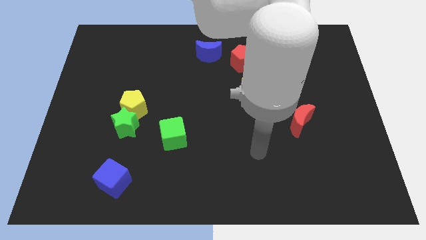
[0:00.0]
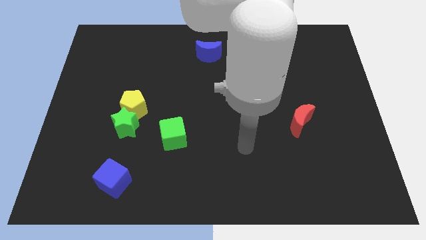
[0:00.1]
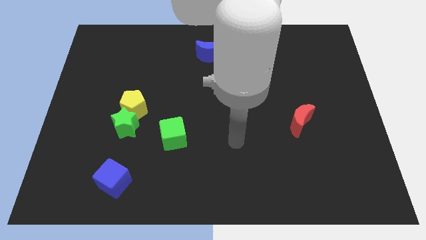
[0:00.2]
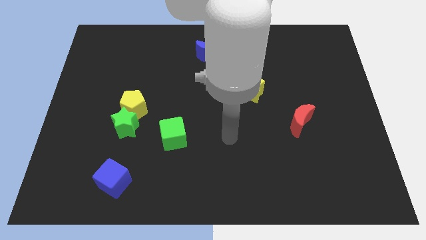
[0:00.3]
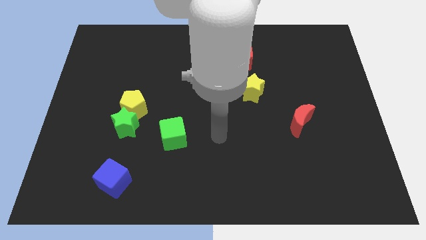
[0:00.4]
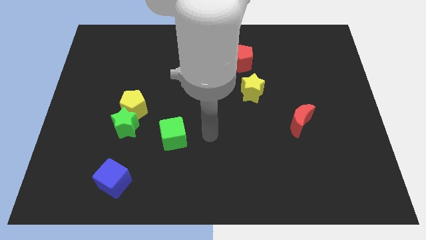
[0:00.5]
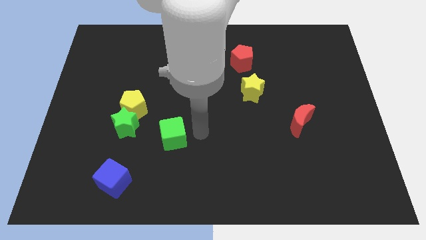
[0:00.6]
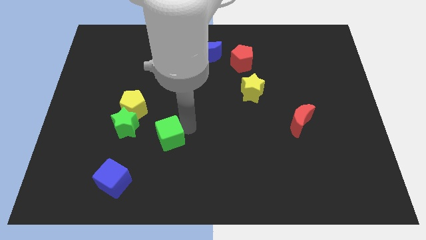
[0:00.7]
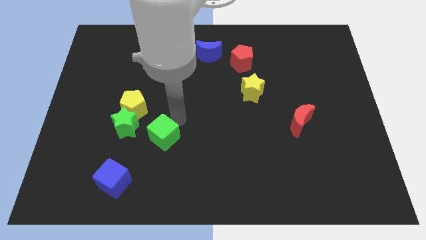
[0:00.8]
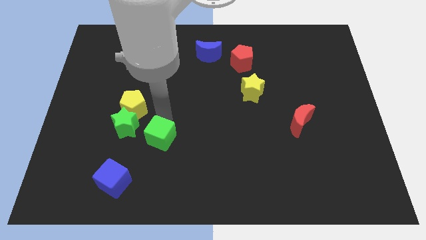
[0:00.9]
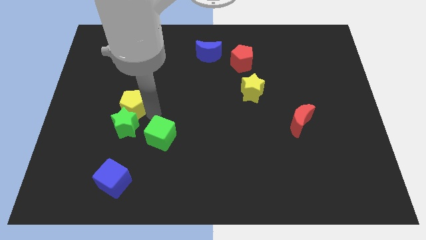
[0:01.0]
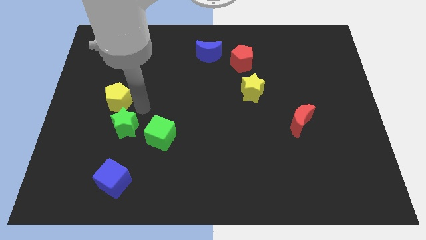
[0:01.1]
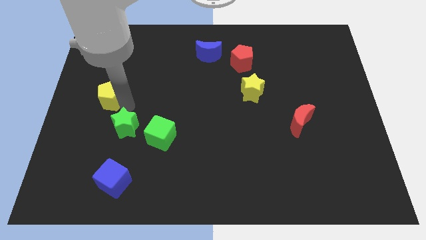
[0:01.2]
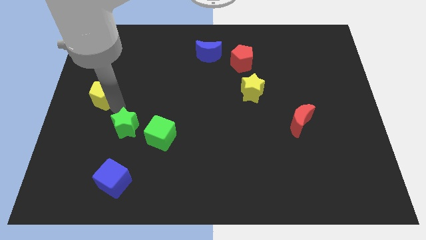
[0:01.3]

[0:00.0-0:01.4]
separate the green star from the yellow pentagon

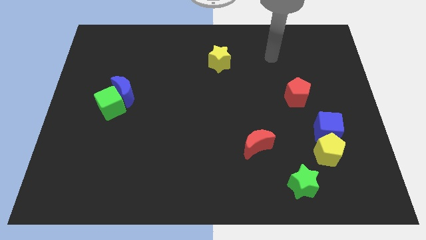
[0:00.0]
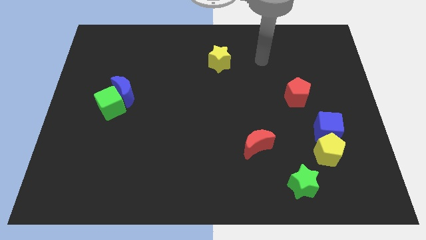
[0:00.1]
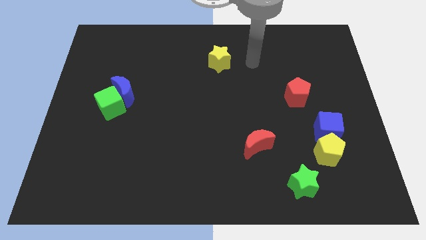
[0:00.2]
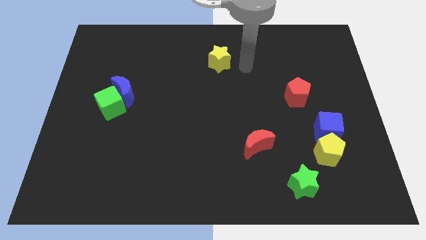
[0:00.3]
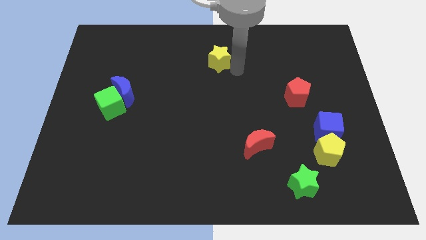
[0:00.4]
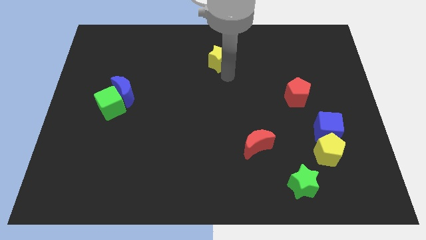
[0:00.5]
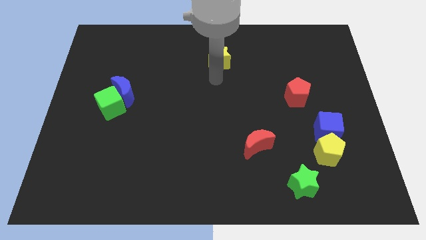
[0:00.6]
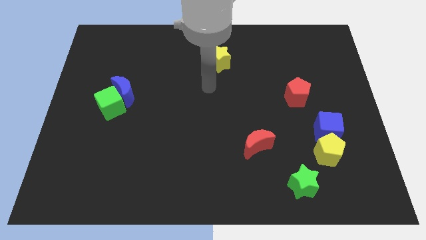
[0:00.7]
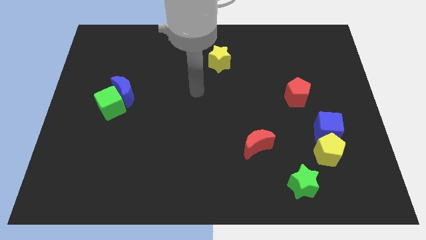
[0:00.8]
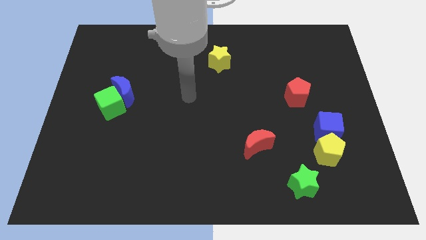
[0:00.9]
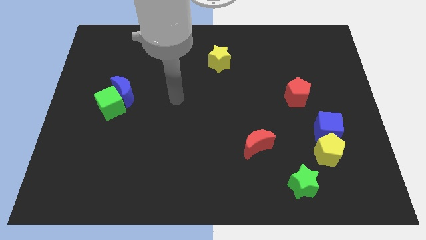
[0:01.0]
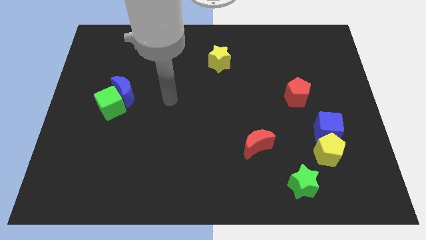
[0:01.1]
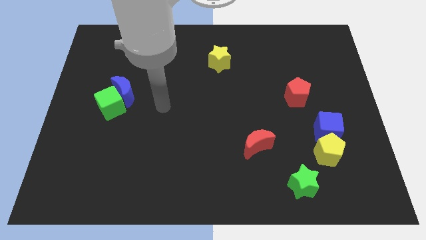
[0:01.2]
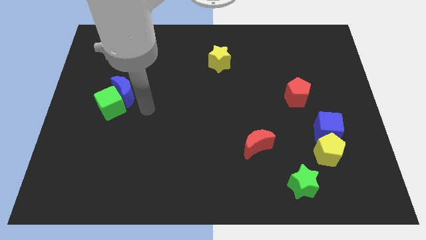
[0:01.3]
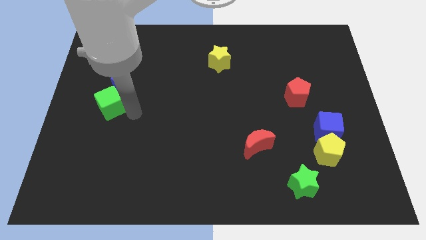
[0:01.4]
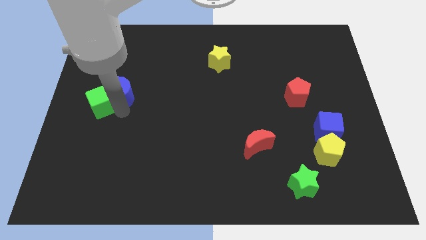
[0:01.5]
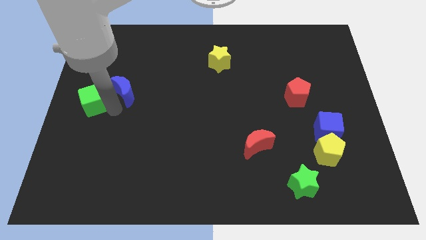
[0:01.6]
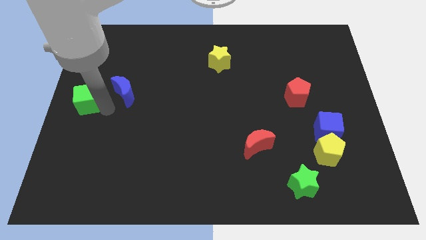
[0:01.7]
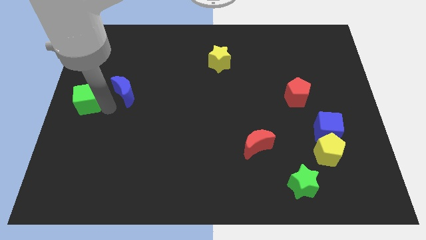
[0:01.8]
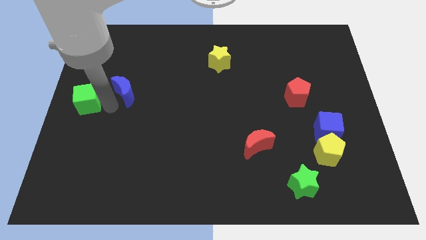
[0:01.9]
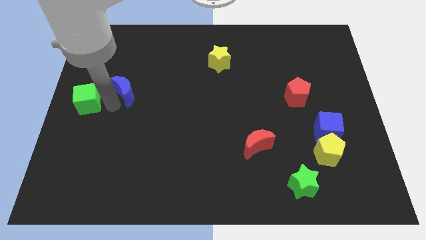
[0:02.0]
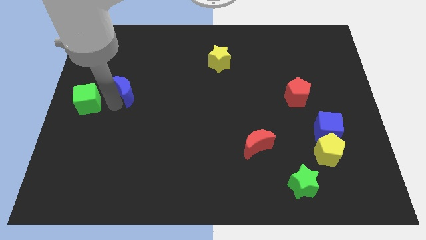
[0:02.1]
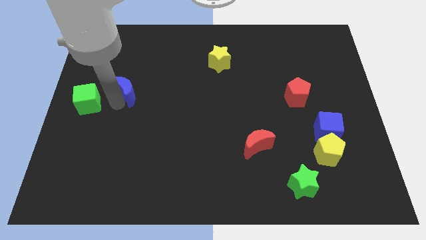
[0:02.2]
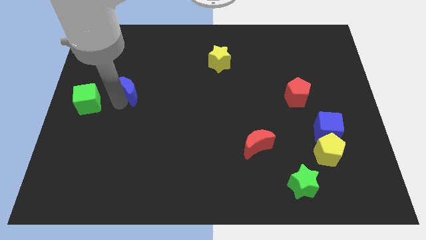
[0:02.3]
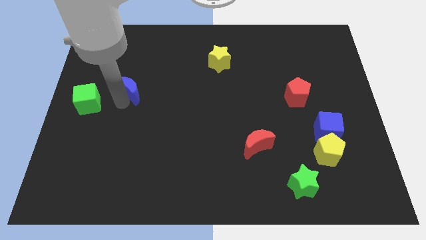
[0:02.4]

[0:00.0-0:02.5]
separate the blue moon from the green cube

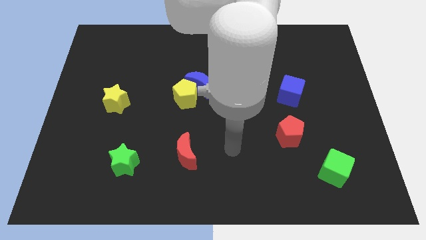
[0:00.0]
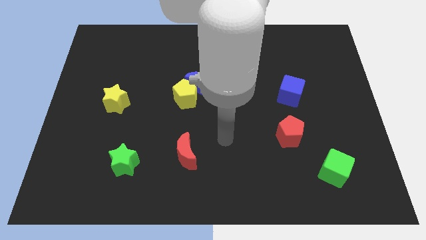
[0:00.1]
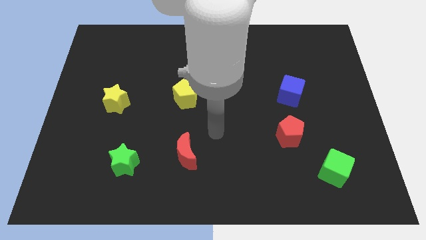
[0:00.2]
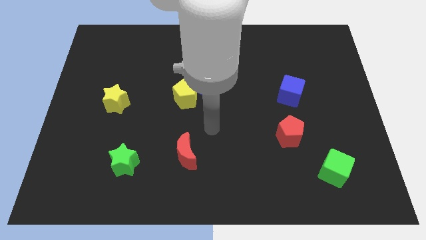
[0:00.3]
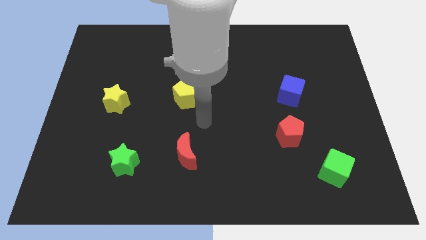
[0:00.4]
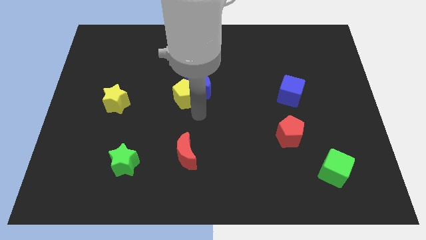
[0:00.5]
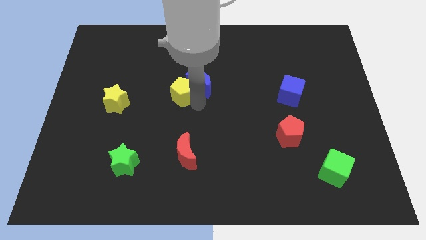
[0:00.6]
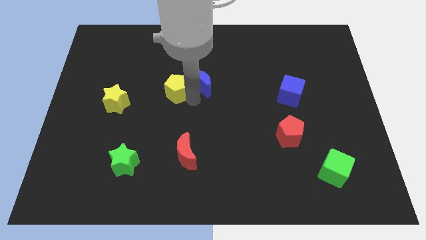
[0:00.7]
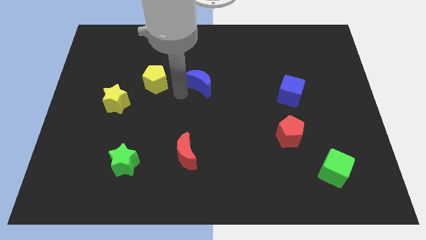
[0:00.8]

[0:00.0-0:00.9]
pull the blue moon apart from the yellow pentagon

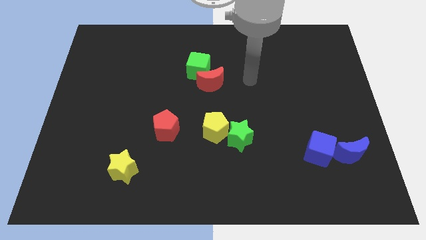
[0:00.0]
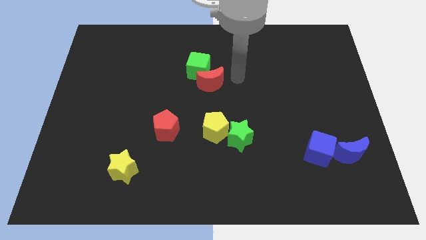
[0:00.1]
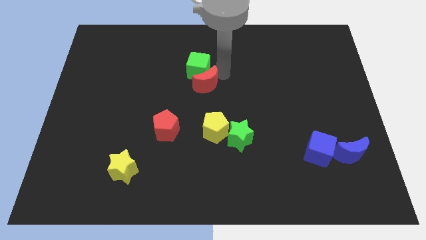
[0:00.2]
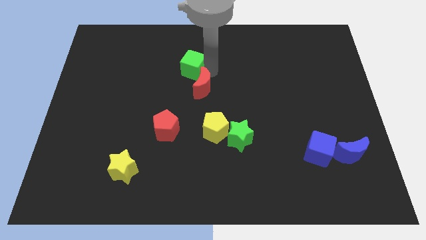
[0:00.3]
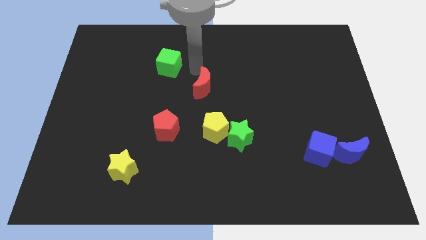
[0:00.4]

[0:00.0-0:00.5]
pull the red moon apart from the green cube

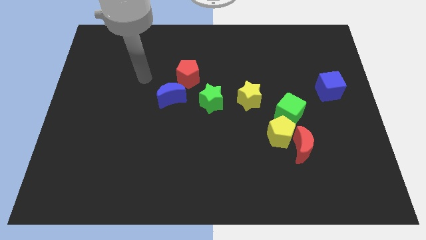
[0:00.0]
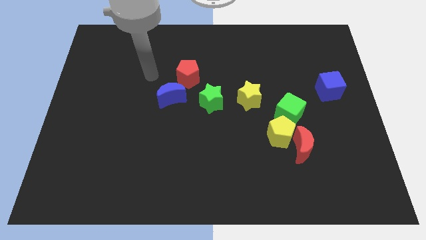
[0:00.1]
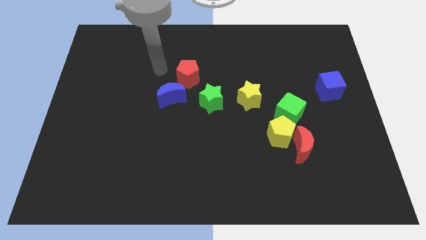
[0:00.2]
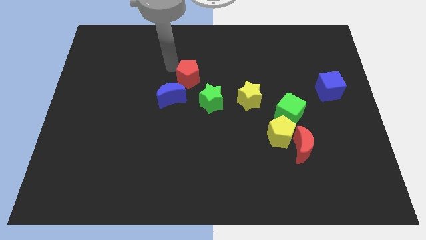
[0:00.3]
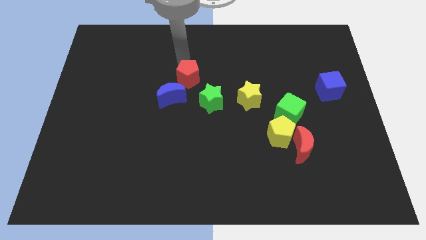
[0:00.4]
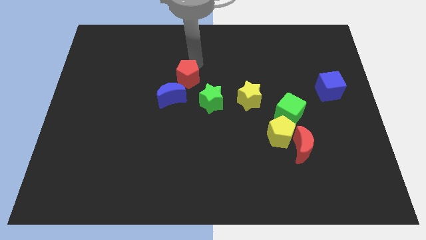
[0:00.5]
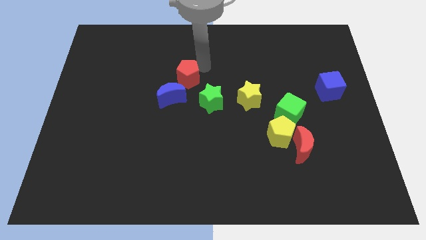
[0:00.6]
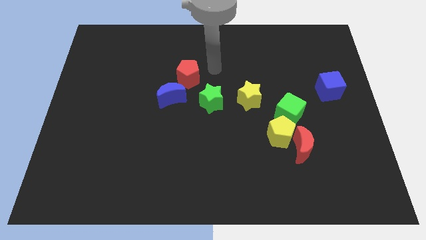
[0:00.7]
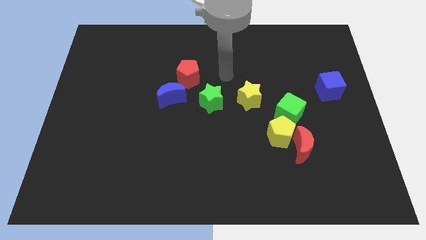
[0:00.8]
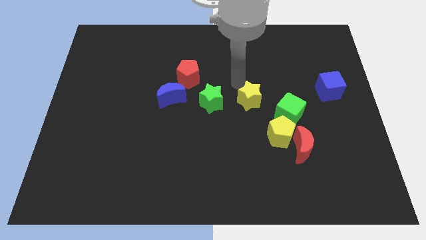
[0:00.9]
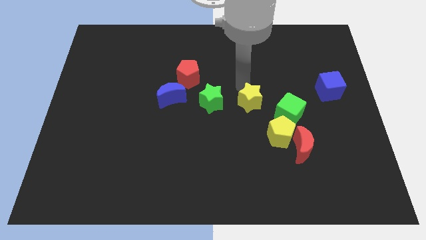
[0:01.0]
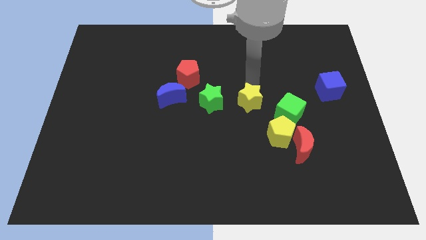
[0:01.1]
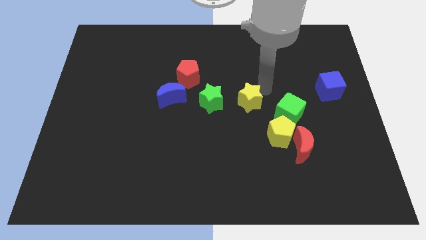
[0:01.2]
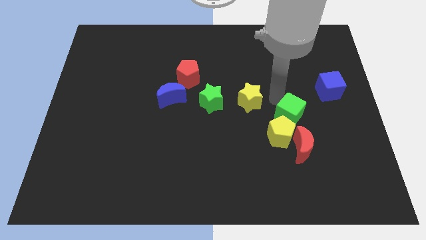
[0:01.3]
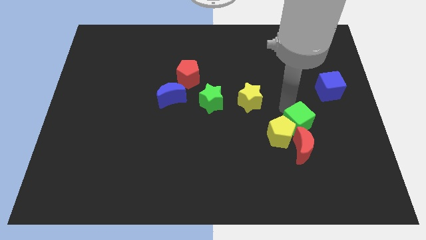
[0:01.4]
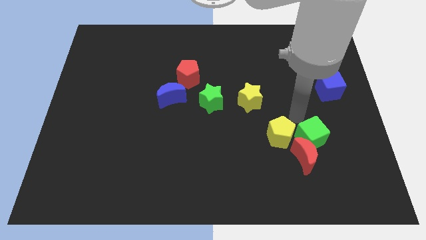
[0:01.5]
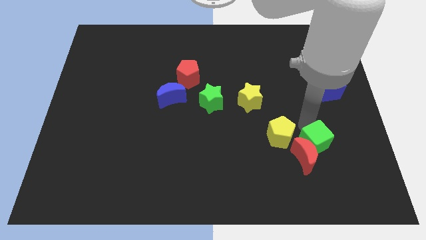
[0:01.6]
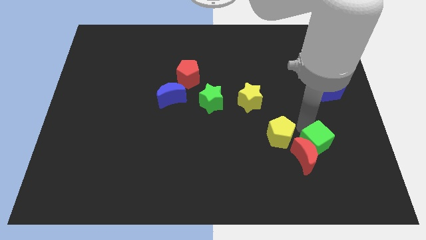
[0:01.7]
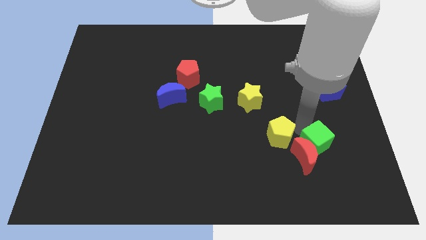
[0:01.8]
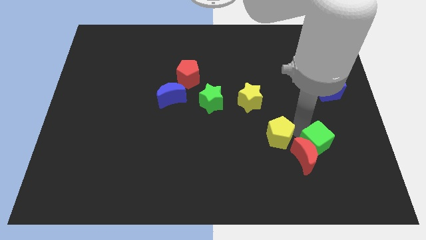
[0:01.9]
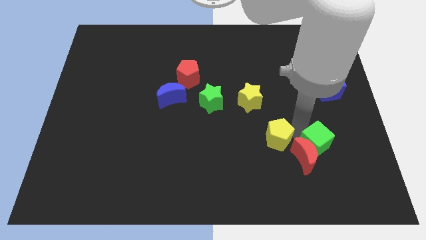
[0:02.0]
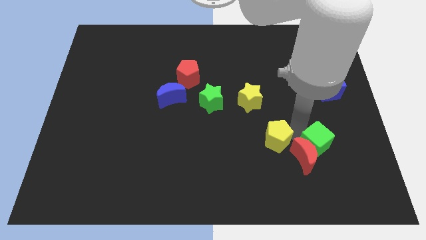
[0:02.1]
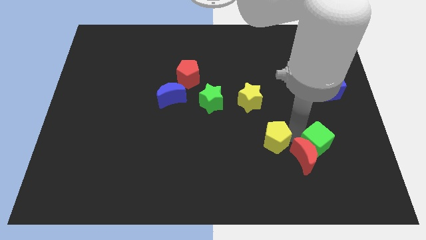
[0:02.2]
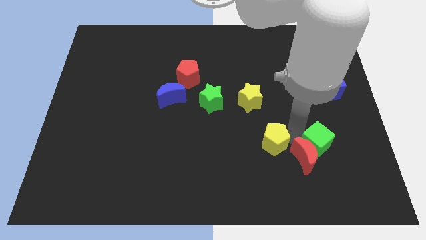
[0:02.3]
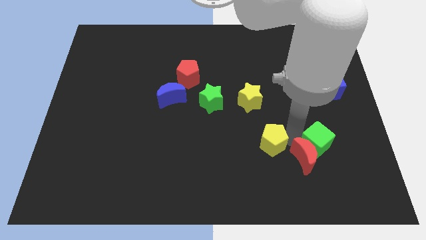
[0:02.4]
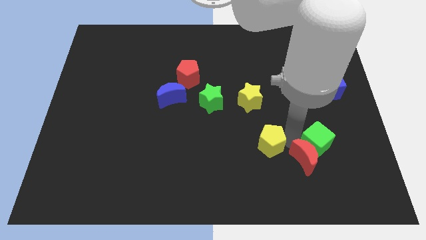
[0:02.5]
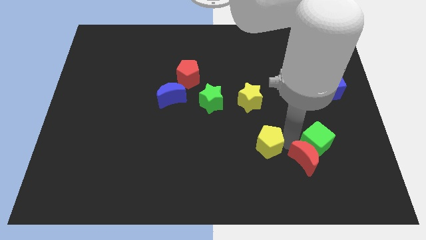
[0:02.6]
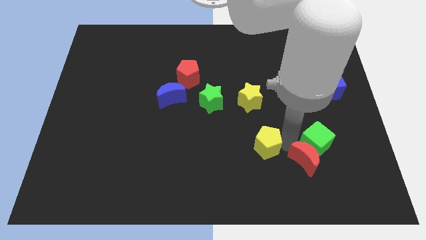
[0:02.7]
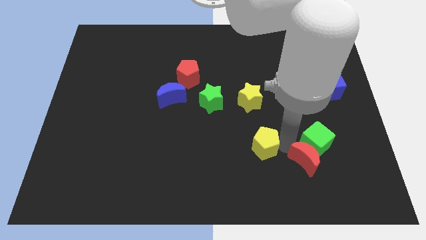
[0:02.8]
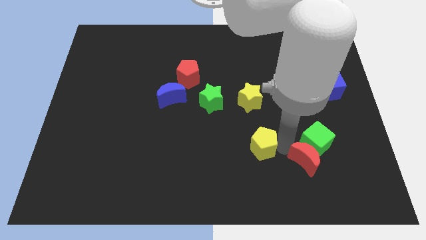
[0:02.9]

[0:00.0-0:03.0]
pull the yellow pentagon apart from the red moon and green cube

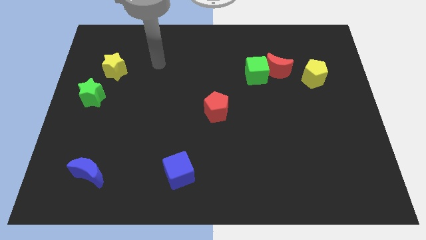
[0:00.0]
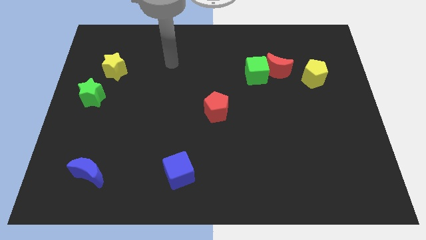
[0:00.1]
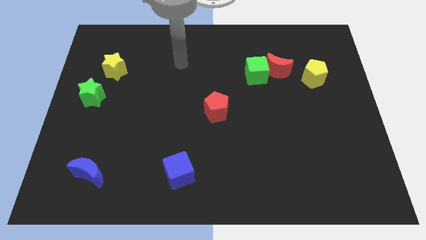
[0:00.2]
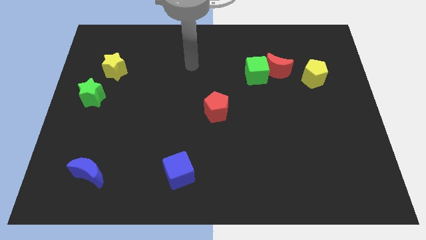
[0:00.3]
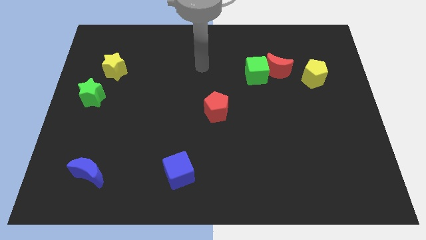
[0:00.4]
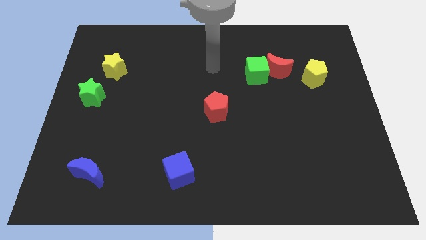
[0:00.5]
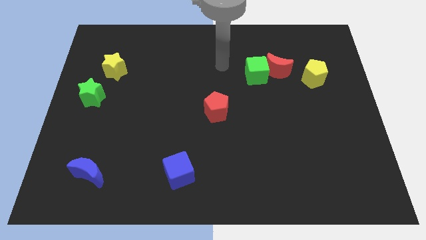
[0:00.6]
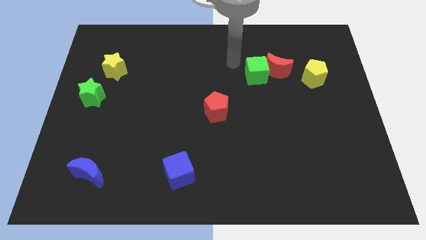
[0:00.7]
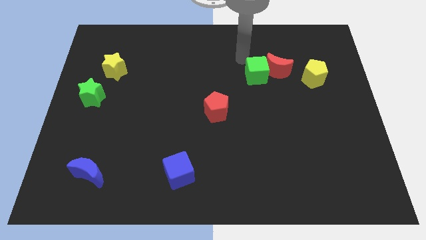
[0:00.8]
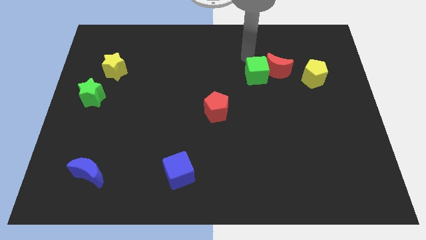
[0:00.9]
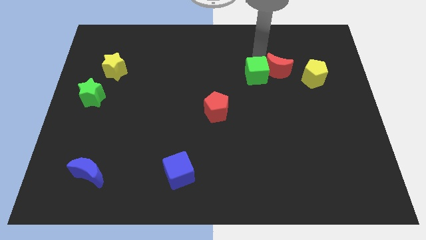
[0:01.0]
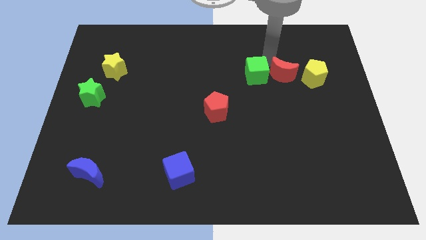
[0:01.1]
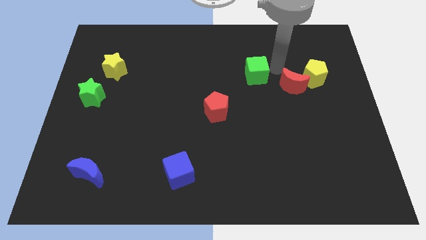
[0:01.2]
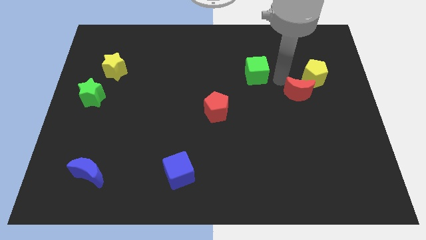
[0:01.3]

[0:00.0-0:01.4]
move the green cube away from the red moon
